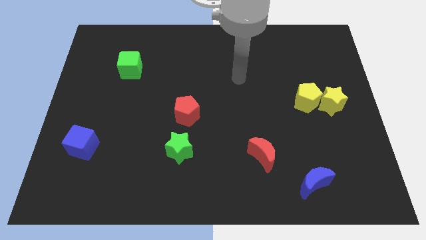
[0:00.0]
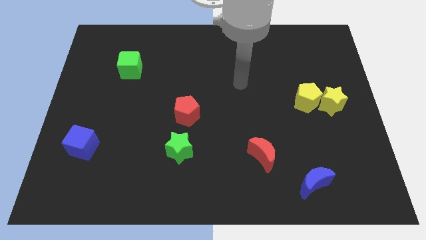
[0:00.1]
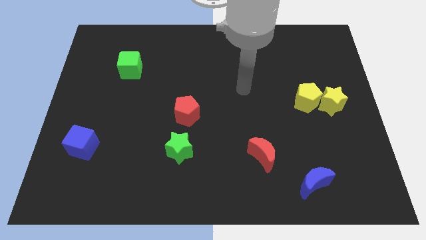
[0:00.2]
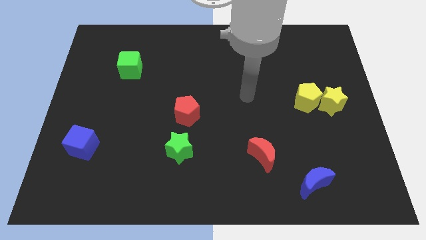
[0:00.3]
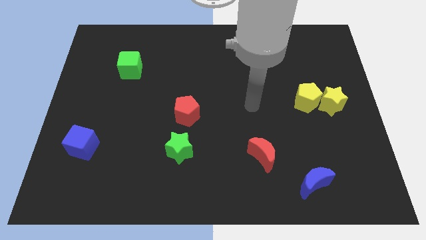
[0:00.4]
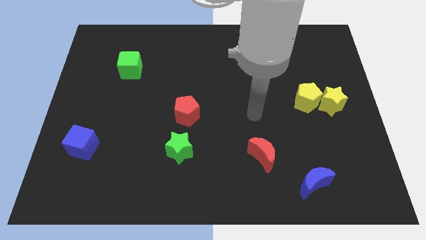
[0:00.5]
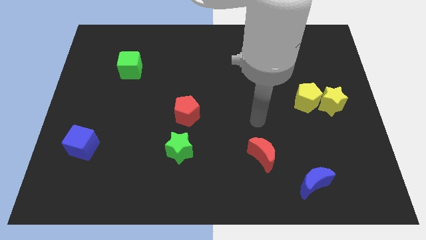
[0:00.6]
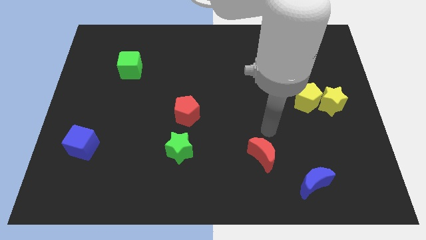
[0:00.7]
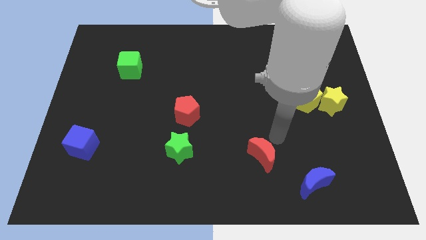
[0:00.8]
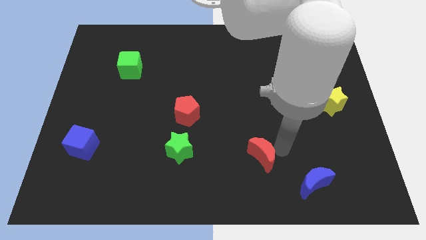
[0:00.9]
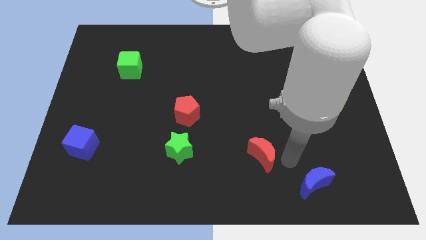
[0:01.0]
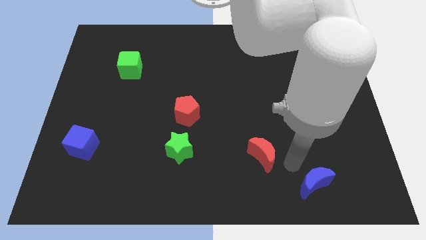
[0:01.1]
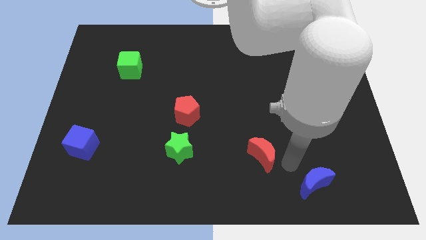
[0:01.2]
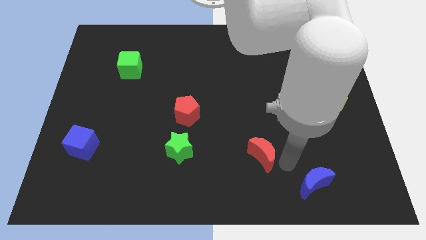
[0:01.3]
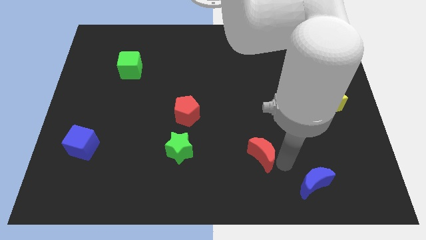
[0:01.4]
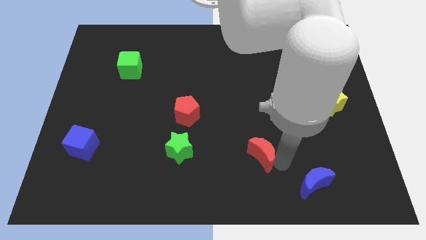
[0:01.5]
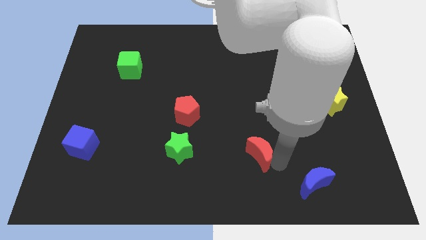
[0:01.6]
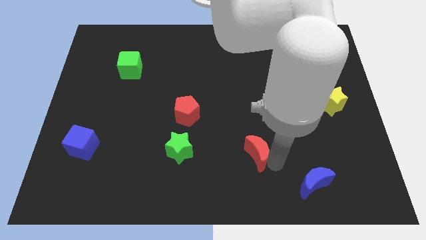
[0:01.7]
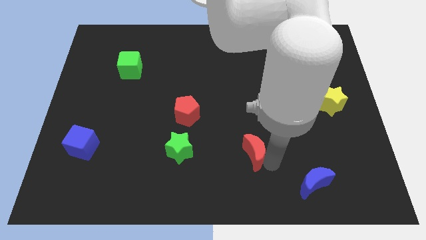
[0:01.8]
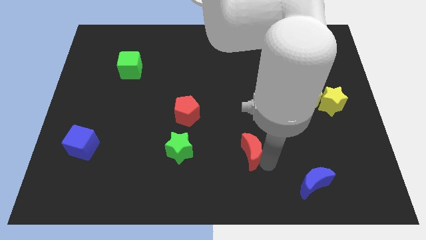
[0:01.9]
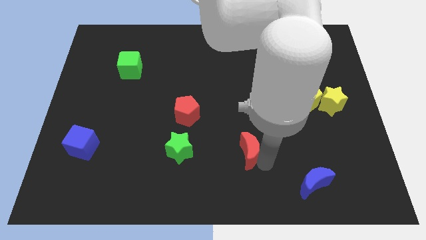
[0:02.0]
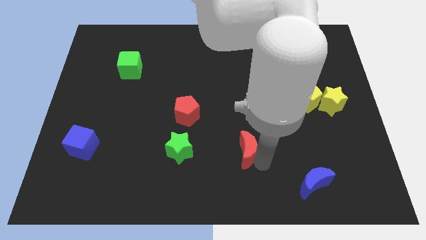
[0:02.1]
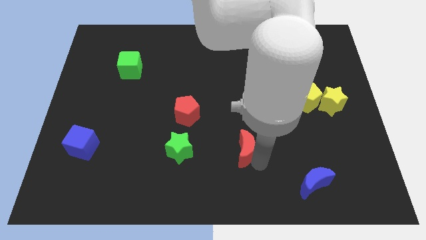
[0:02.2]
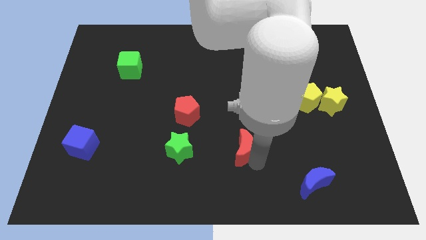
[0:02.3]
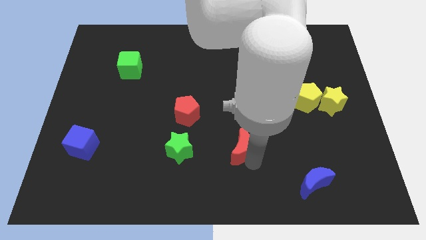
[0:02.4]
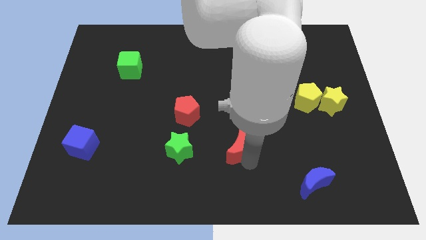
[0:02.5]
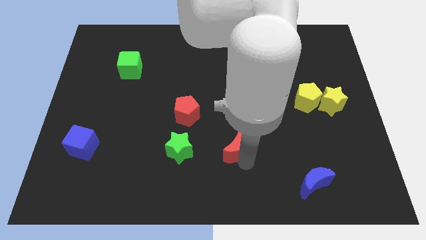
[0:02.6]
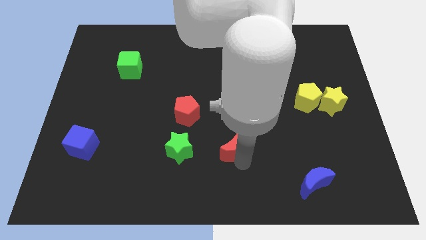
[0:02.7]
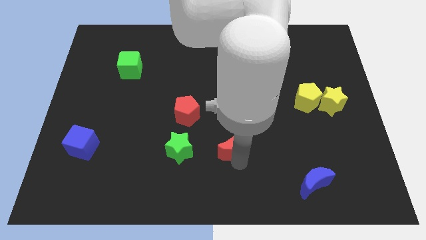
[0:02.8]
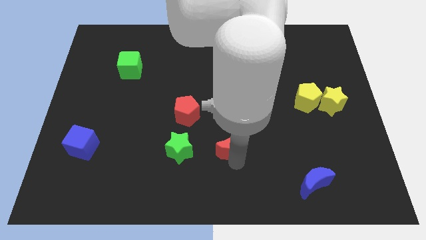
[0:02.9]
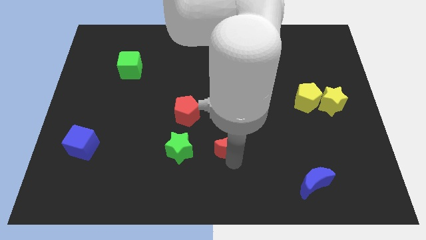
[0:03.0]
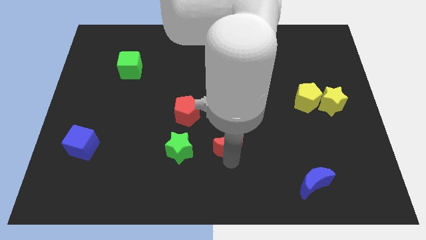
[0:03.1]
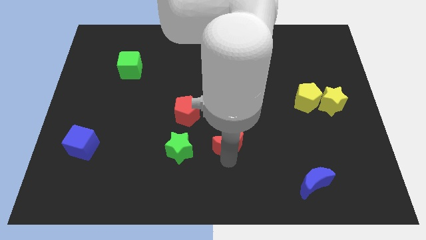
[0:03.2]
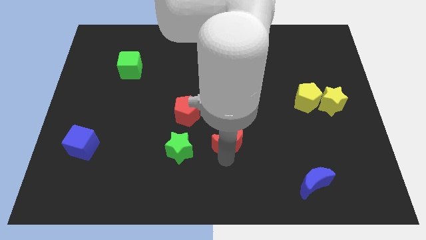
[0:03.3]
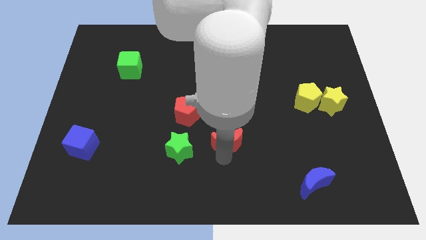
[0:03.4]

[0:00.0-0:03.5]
push the red moon diagonally up and left a bit

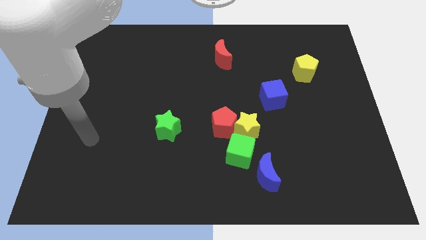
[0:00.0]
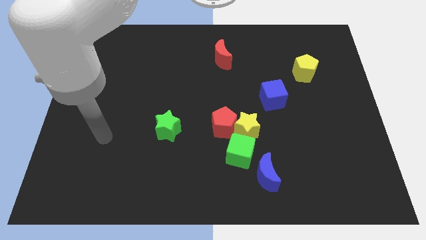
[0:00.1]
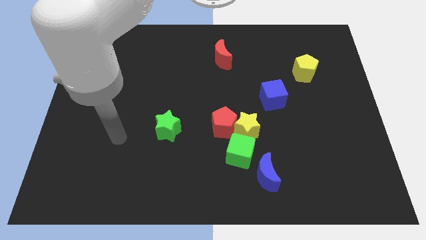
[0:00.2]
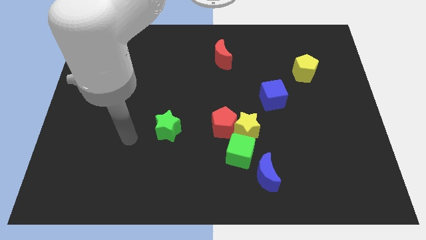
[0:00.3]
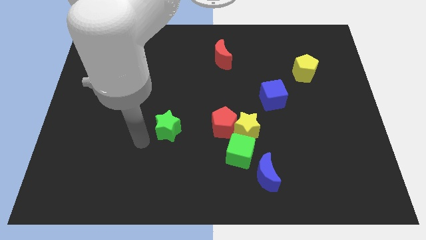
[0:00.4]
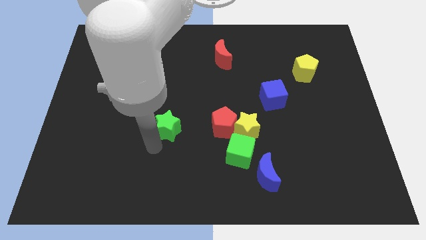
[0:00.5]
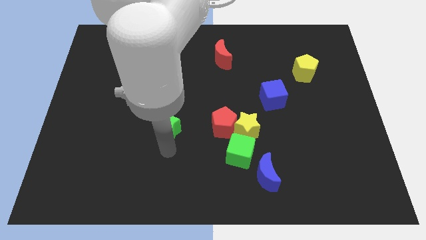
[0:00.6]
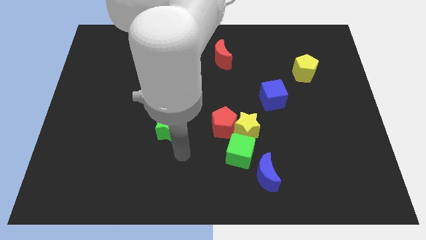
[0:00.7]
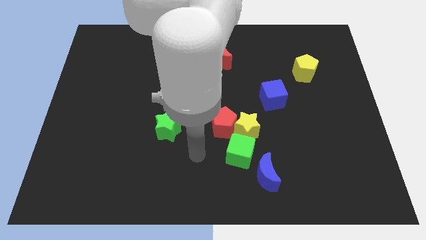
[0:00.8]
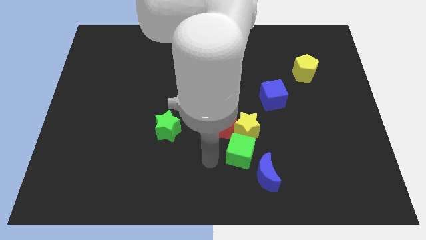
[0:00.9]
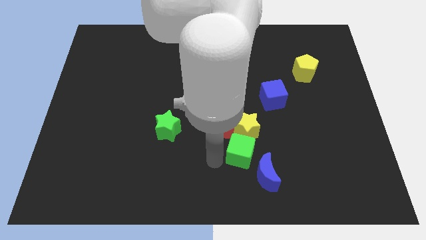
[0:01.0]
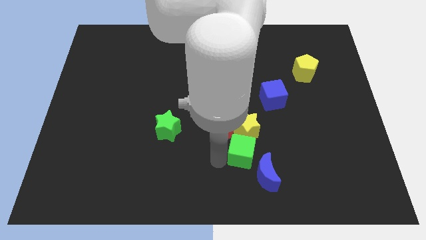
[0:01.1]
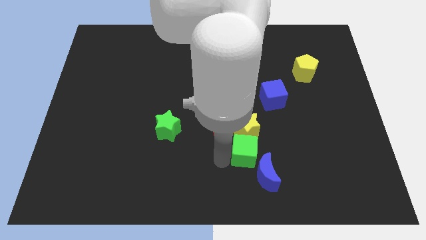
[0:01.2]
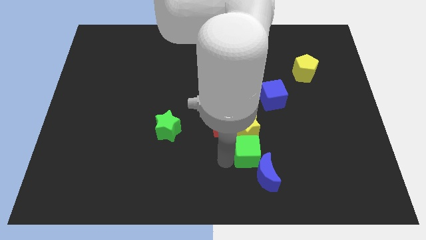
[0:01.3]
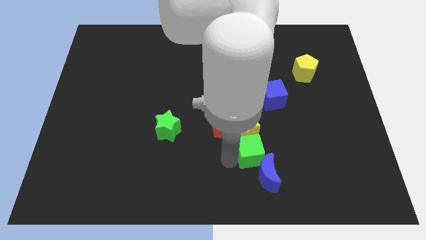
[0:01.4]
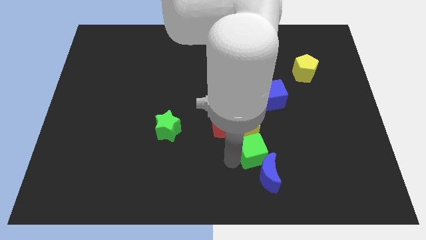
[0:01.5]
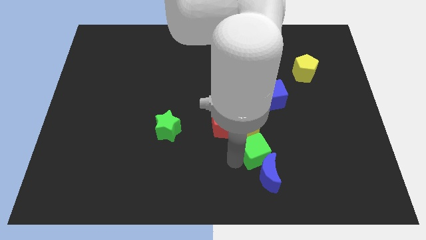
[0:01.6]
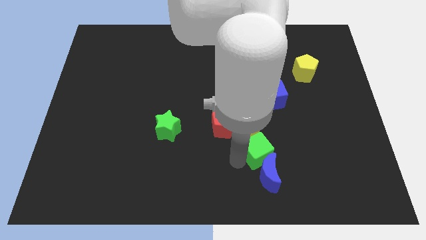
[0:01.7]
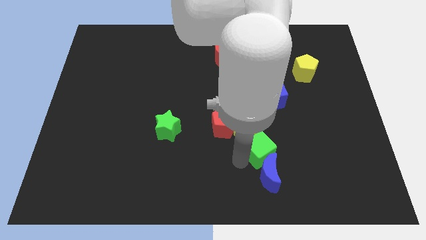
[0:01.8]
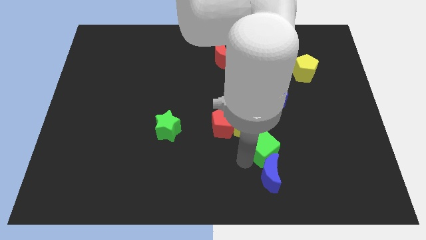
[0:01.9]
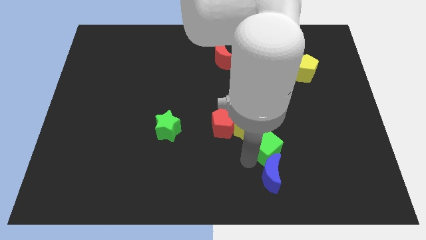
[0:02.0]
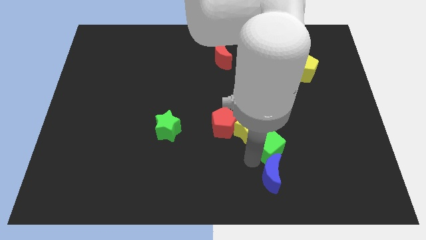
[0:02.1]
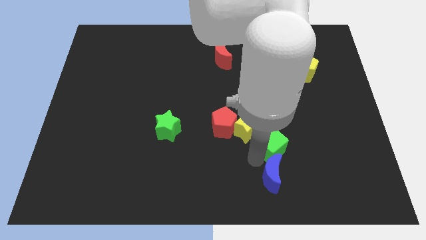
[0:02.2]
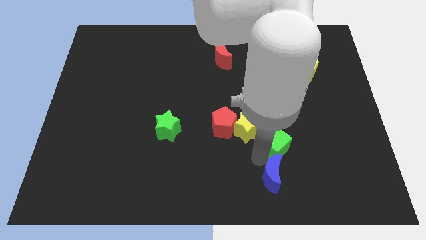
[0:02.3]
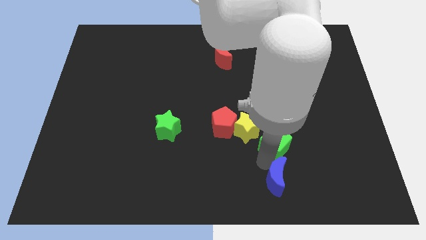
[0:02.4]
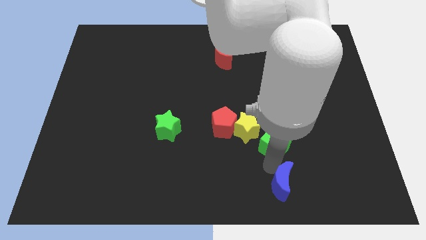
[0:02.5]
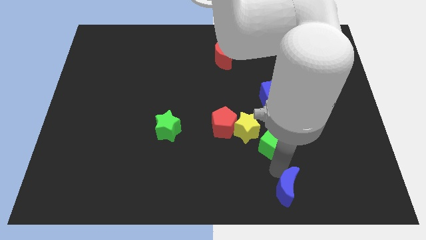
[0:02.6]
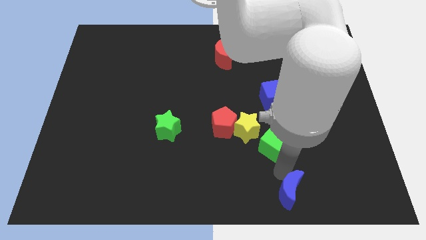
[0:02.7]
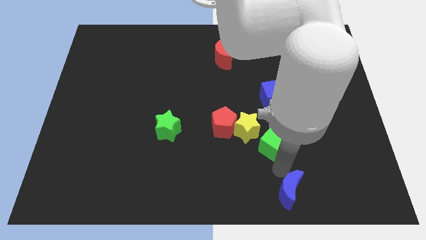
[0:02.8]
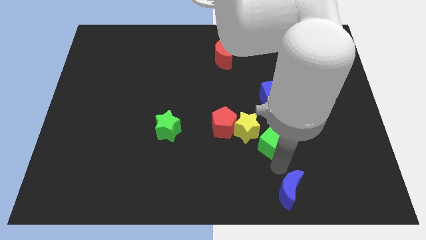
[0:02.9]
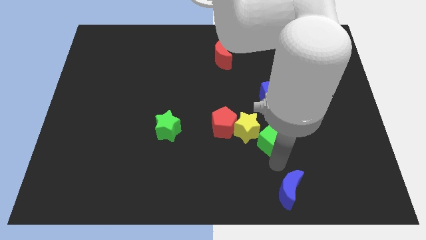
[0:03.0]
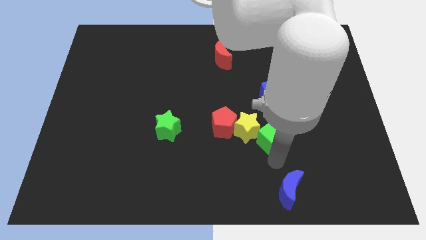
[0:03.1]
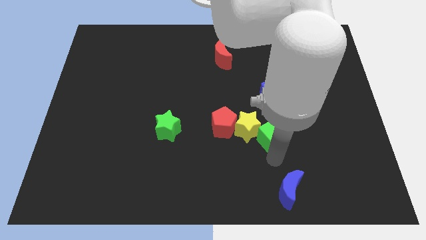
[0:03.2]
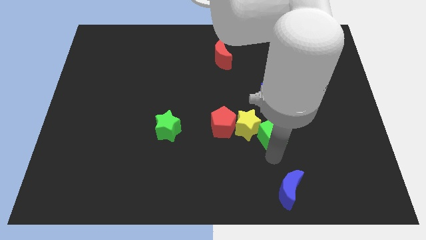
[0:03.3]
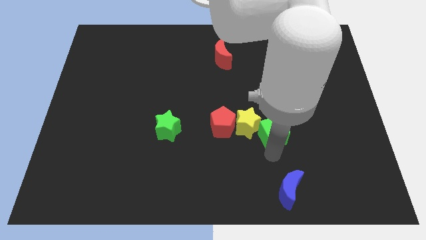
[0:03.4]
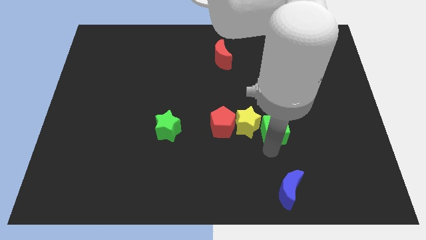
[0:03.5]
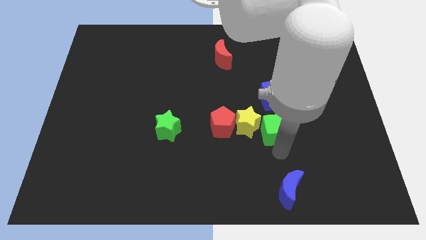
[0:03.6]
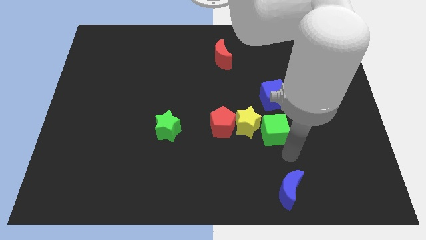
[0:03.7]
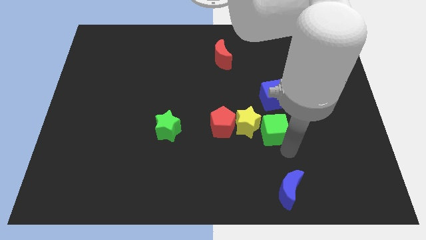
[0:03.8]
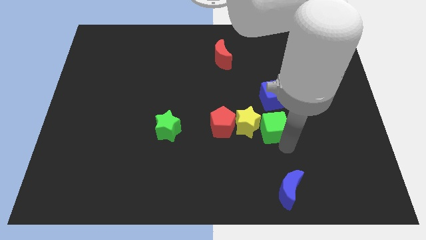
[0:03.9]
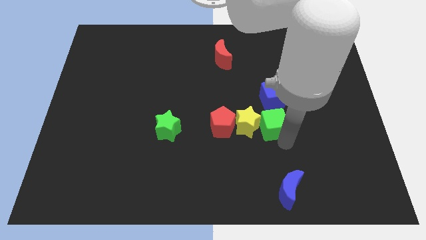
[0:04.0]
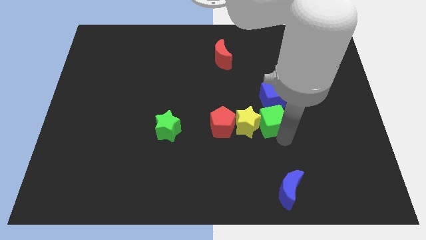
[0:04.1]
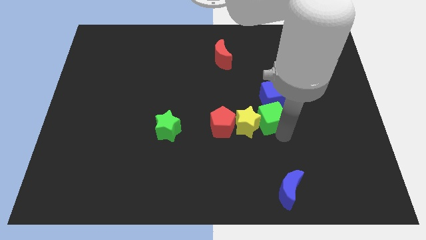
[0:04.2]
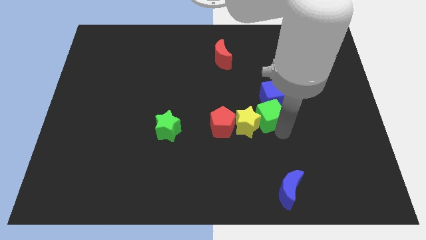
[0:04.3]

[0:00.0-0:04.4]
slightly move the green cube upwards

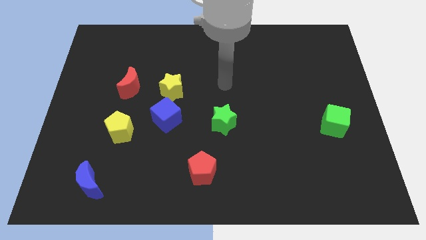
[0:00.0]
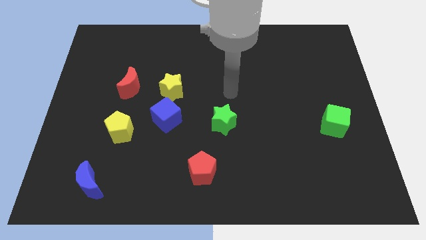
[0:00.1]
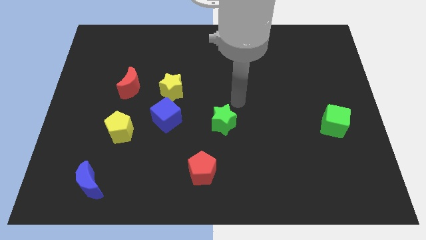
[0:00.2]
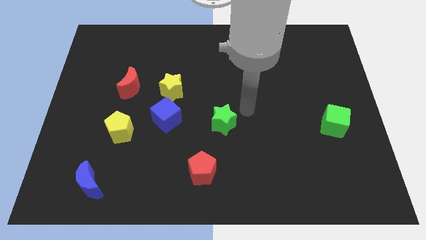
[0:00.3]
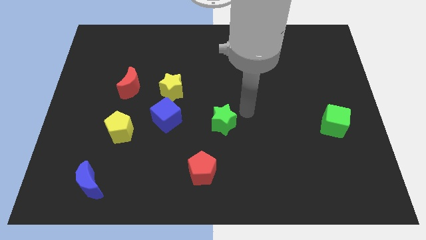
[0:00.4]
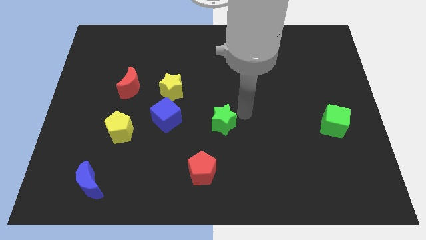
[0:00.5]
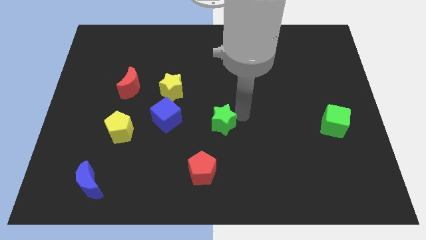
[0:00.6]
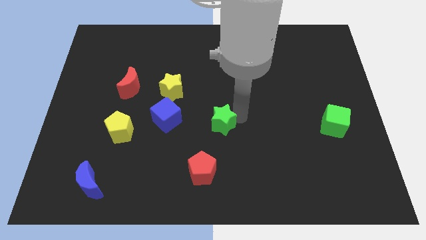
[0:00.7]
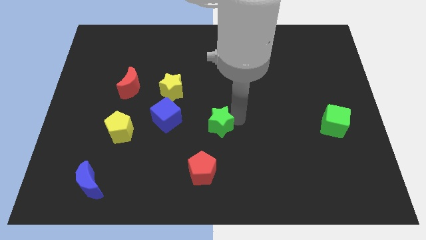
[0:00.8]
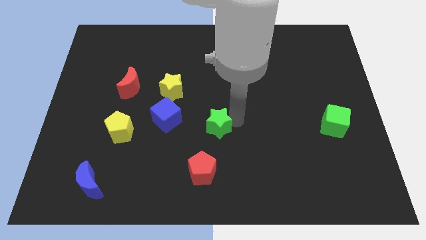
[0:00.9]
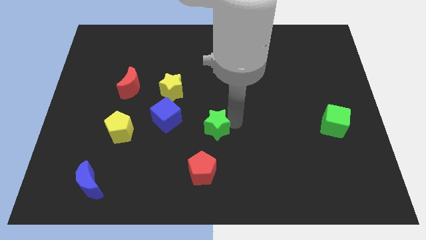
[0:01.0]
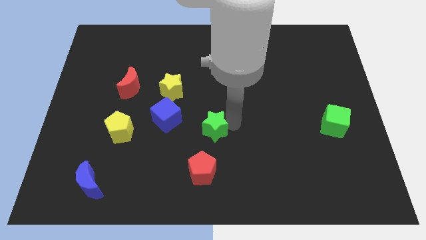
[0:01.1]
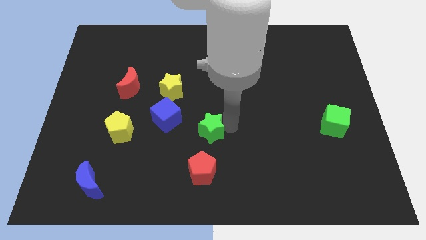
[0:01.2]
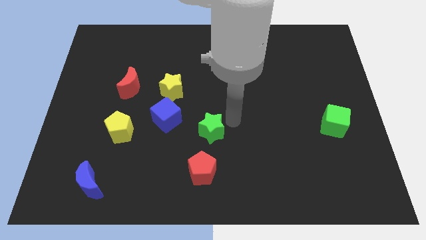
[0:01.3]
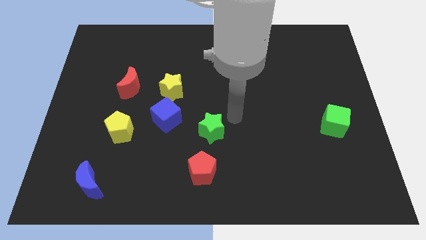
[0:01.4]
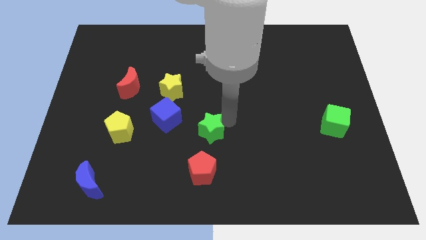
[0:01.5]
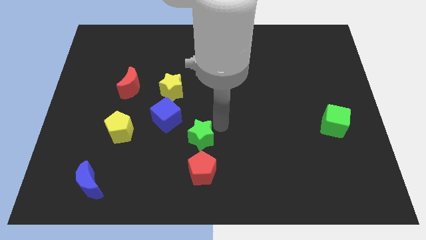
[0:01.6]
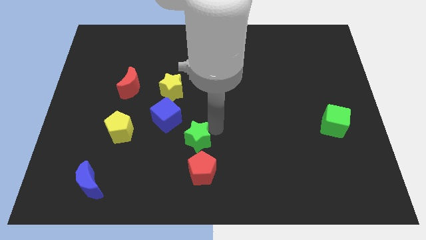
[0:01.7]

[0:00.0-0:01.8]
slightly push the green star diagonally downwards and left
